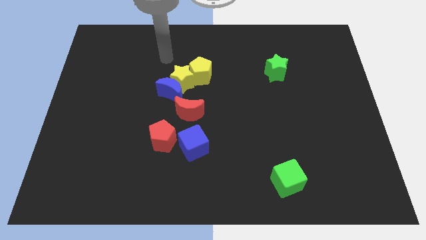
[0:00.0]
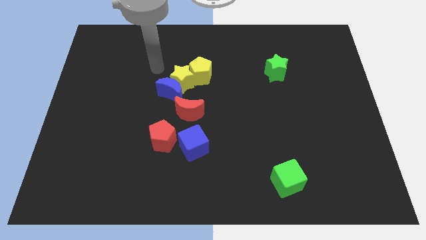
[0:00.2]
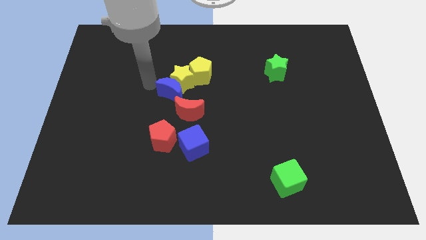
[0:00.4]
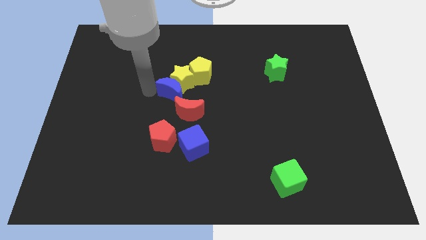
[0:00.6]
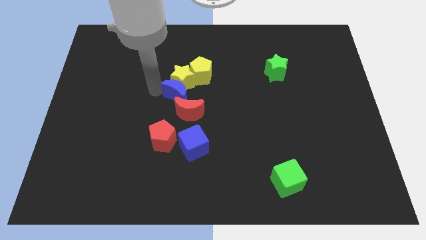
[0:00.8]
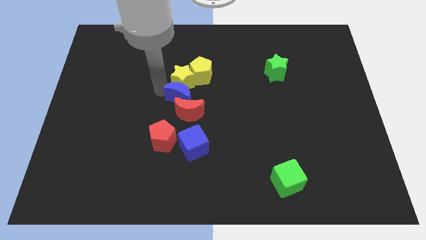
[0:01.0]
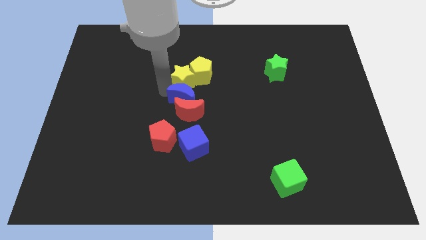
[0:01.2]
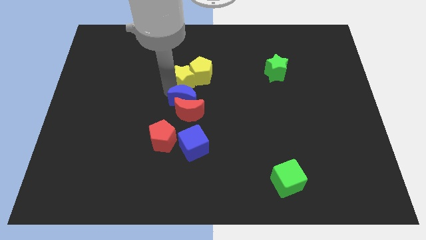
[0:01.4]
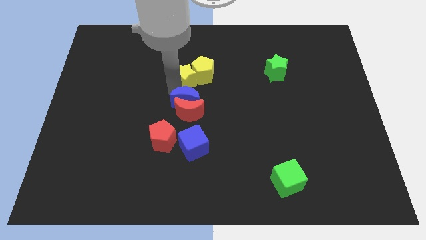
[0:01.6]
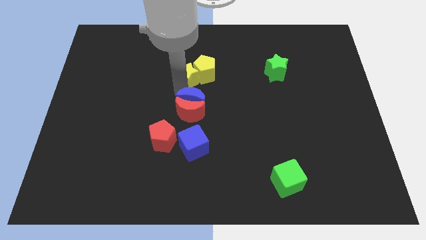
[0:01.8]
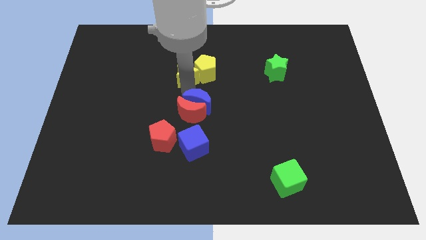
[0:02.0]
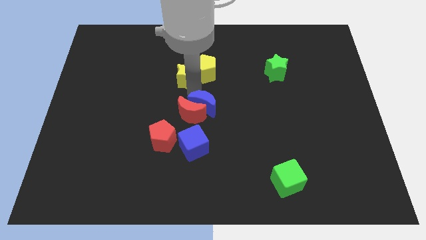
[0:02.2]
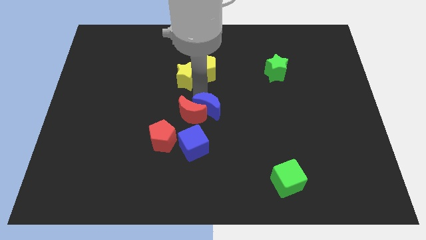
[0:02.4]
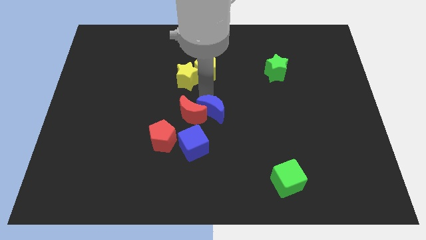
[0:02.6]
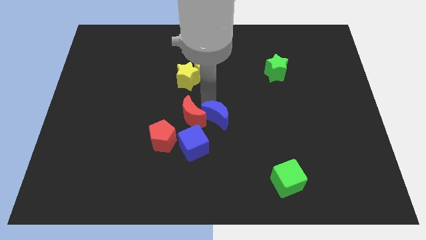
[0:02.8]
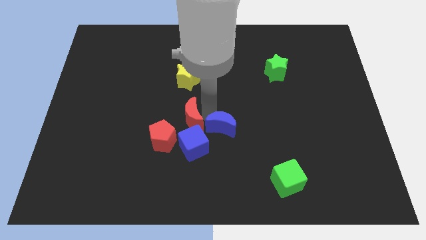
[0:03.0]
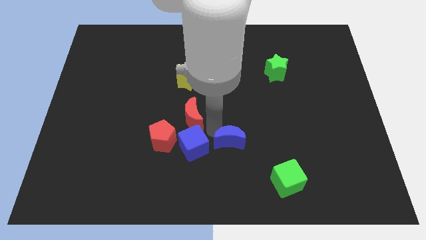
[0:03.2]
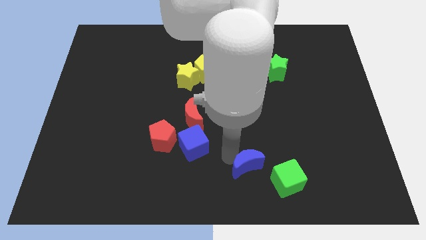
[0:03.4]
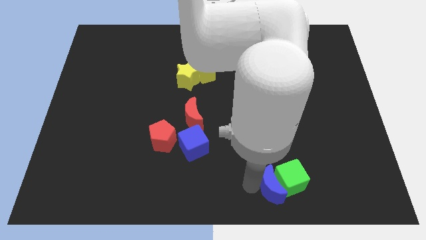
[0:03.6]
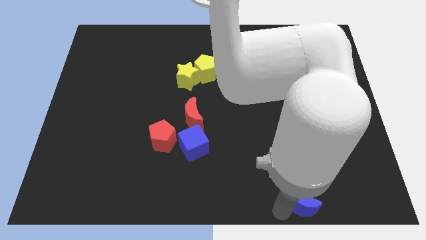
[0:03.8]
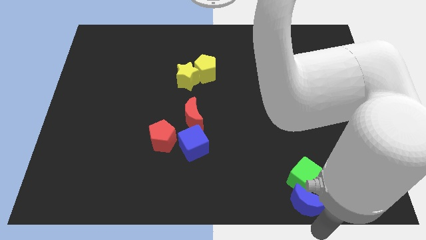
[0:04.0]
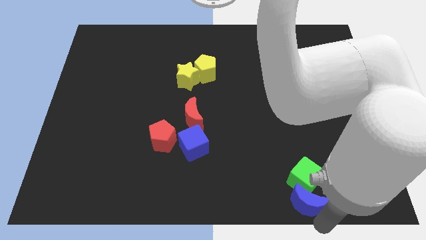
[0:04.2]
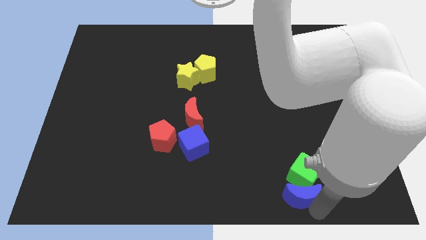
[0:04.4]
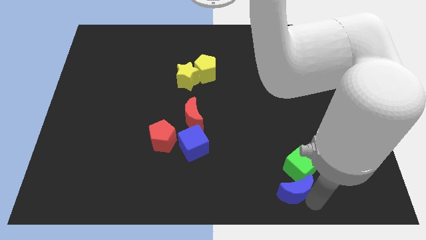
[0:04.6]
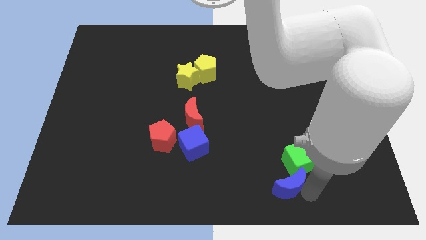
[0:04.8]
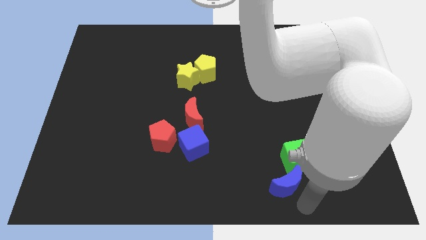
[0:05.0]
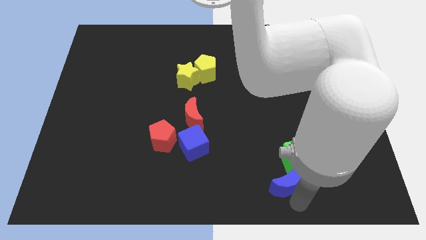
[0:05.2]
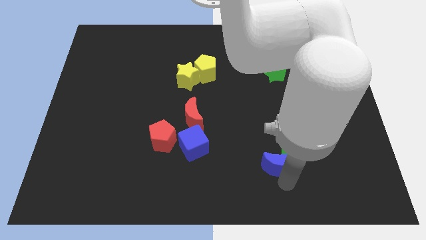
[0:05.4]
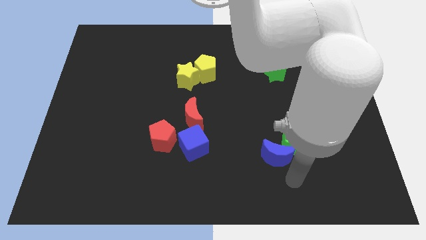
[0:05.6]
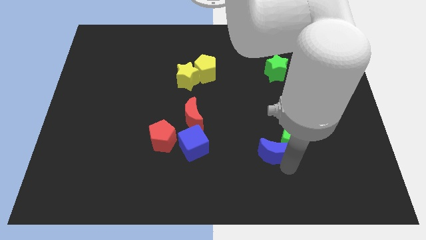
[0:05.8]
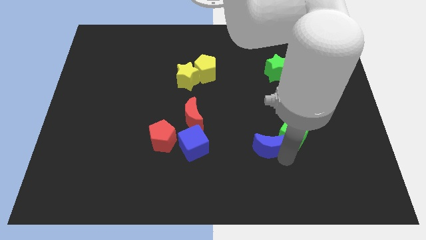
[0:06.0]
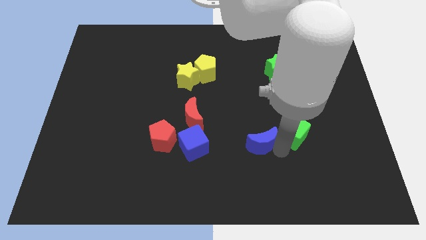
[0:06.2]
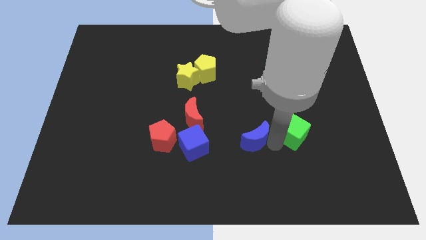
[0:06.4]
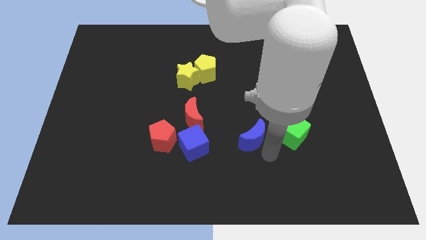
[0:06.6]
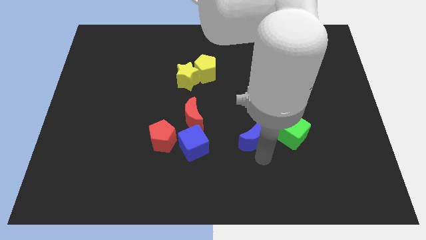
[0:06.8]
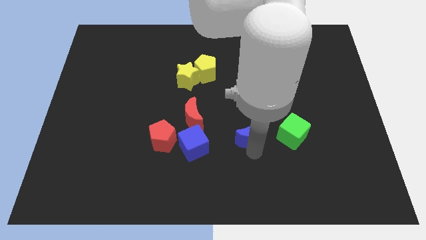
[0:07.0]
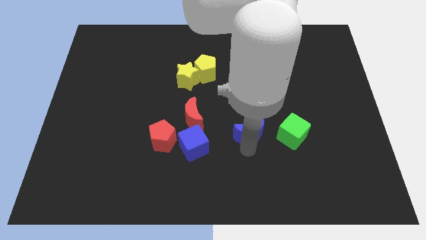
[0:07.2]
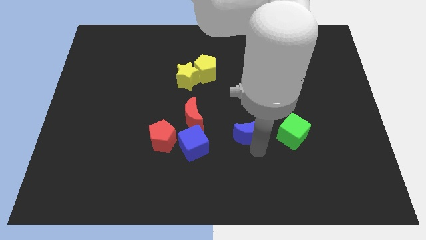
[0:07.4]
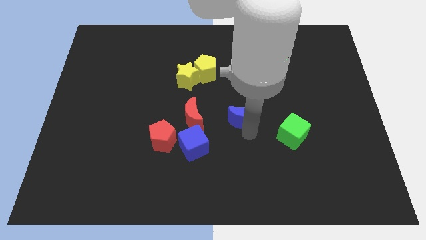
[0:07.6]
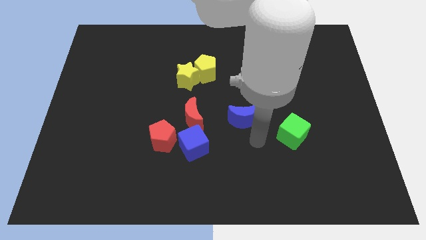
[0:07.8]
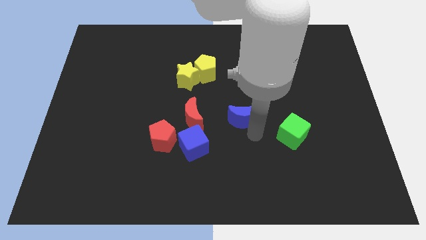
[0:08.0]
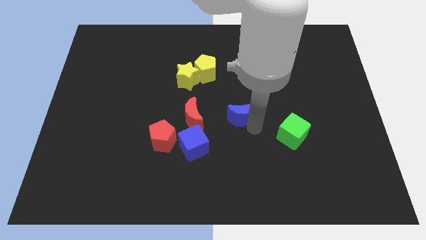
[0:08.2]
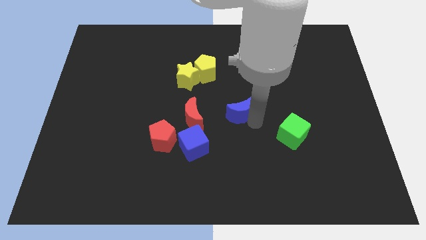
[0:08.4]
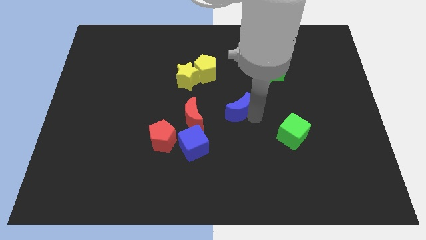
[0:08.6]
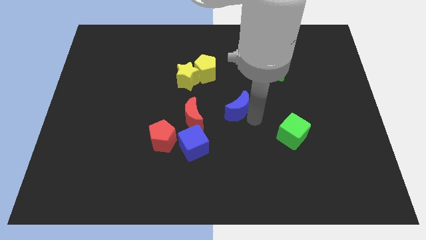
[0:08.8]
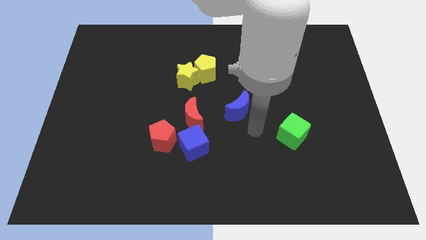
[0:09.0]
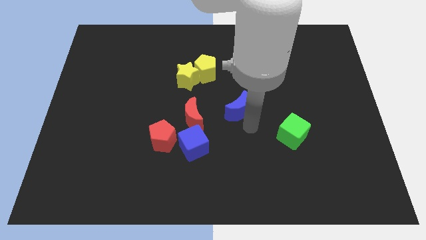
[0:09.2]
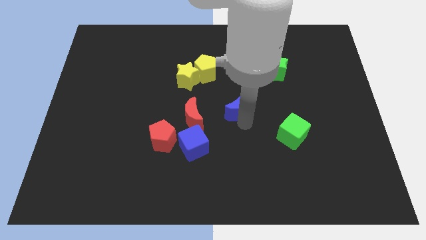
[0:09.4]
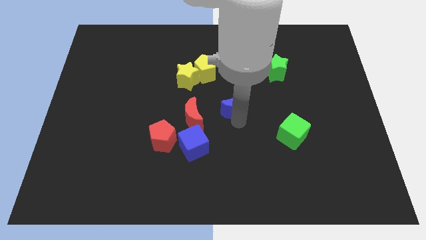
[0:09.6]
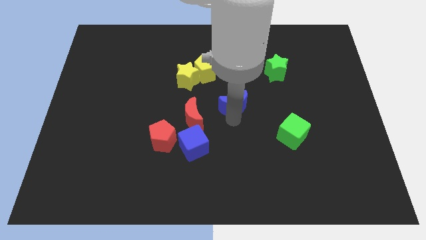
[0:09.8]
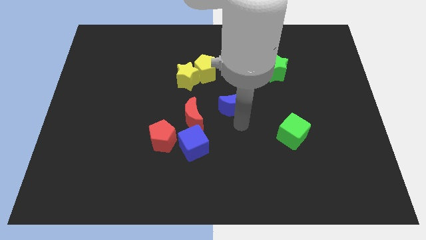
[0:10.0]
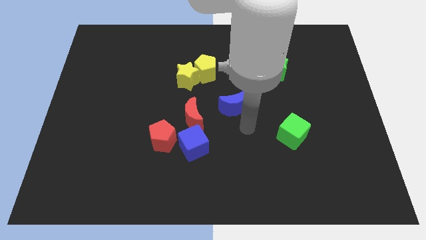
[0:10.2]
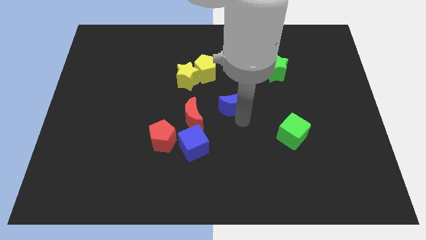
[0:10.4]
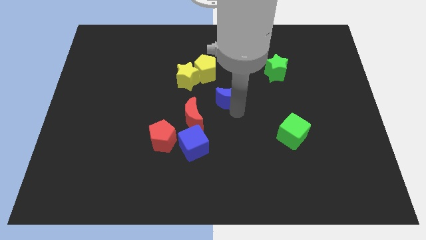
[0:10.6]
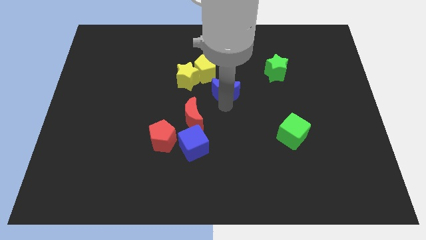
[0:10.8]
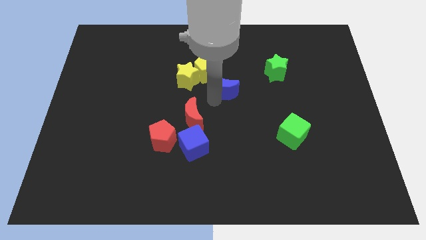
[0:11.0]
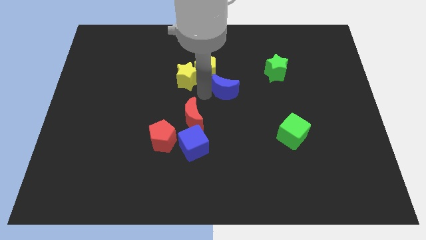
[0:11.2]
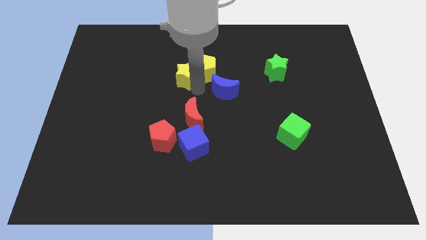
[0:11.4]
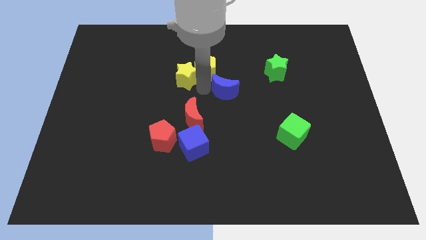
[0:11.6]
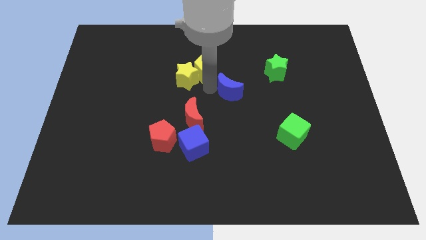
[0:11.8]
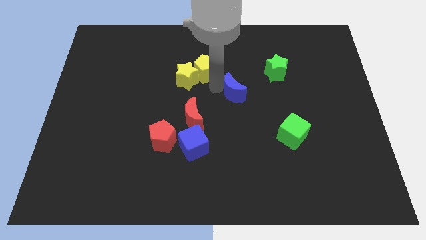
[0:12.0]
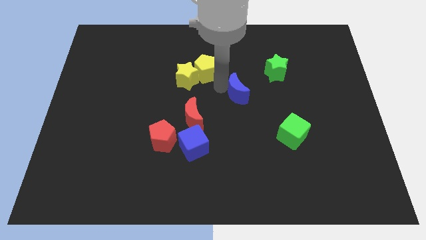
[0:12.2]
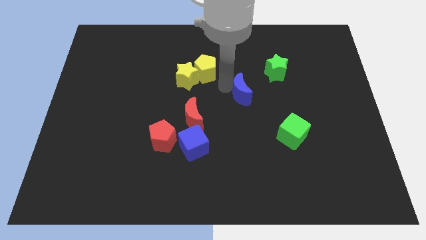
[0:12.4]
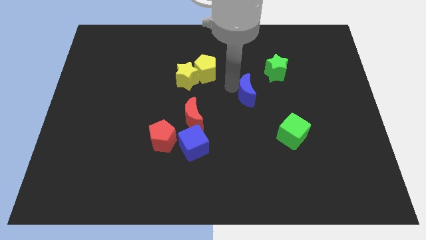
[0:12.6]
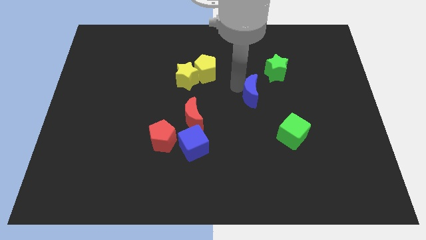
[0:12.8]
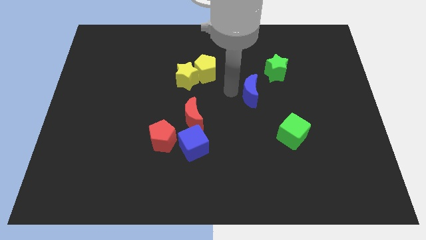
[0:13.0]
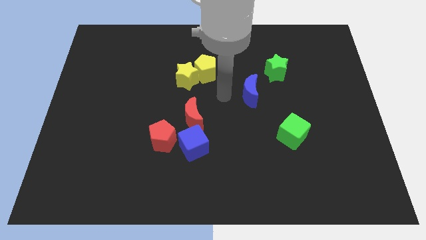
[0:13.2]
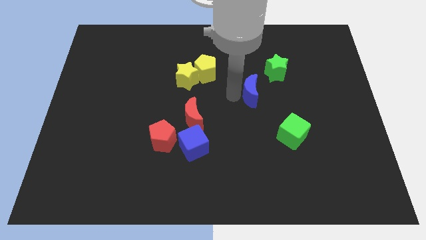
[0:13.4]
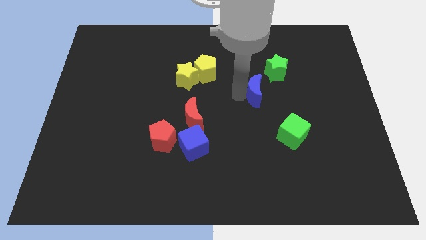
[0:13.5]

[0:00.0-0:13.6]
push the blue moon to the right

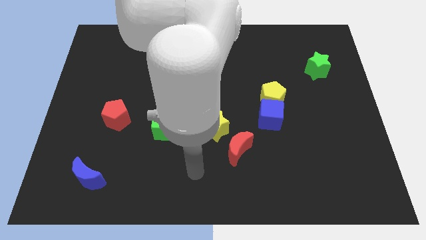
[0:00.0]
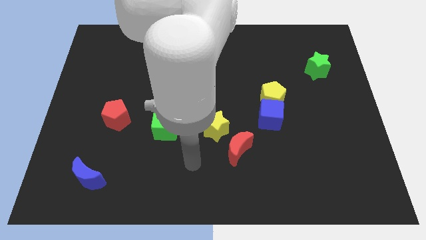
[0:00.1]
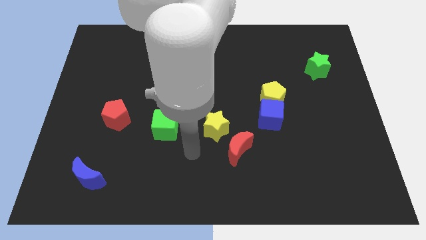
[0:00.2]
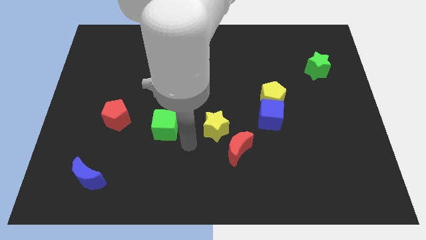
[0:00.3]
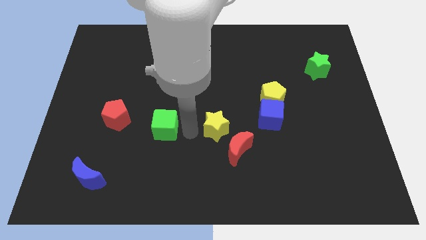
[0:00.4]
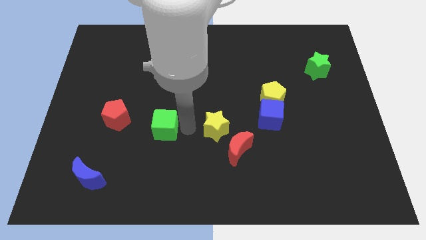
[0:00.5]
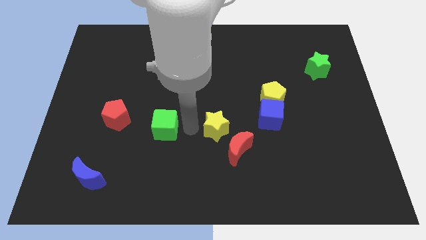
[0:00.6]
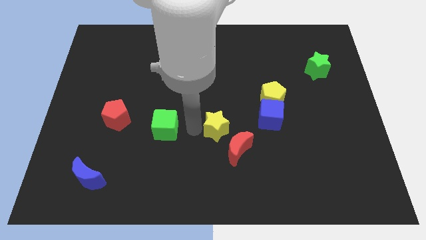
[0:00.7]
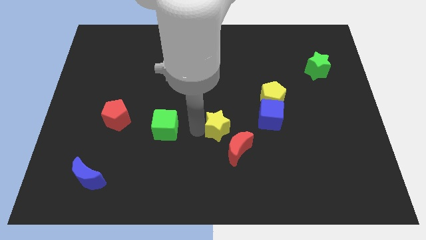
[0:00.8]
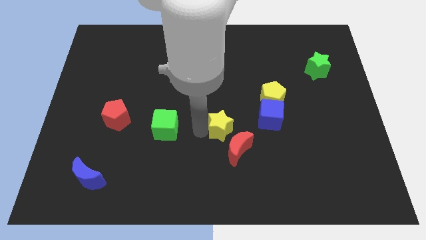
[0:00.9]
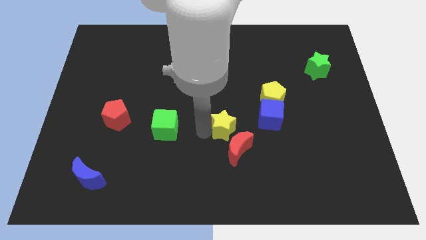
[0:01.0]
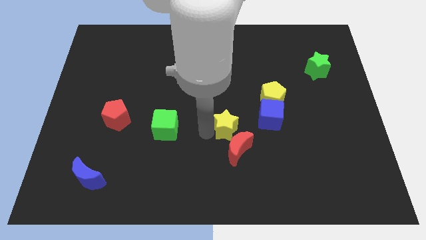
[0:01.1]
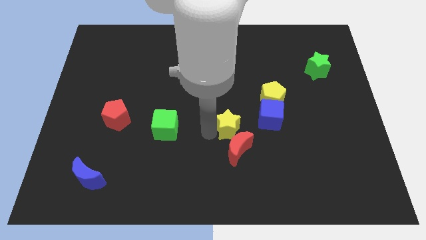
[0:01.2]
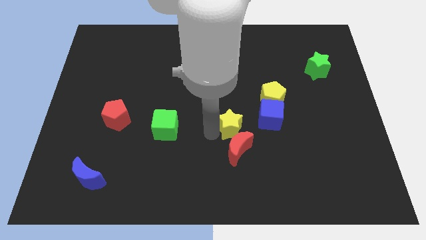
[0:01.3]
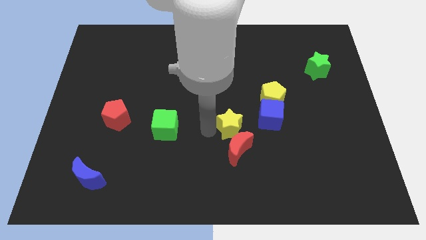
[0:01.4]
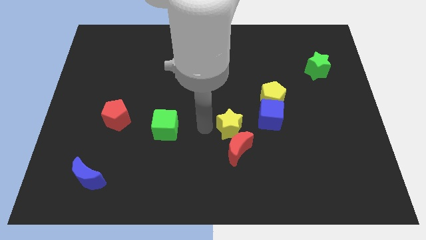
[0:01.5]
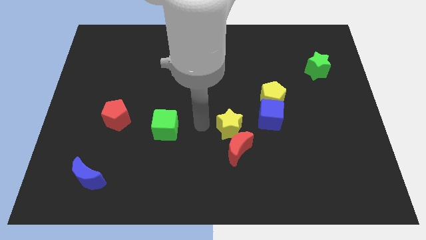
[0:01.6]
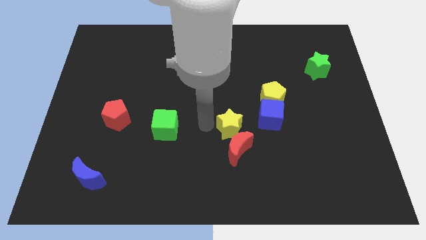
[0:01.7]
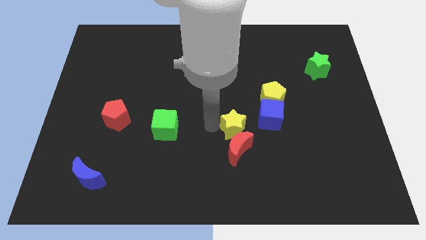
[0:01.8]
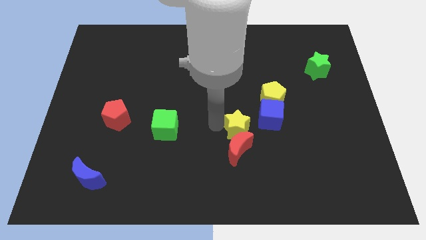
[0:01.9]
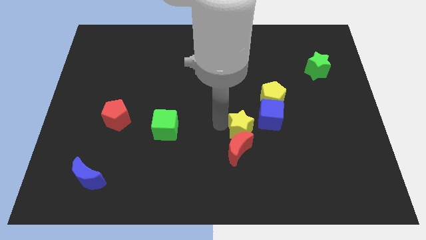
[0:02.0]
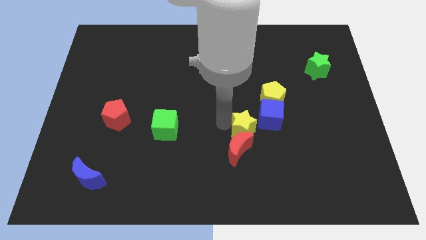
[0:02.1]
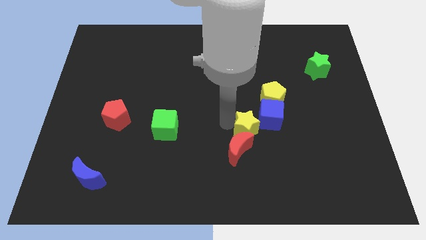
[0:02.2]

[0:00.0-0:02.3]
push the yellow star somewhat right
